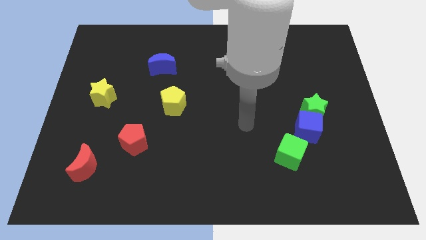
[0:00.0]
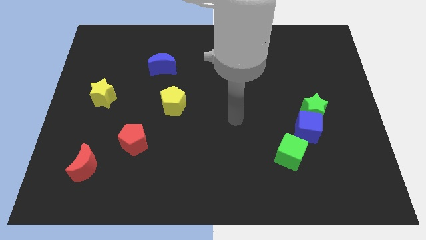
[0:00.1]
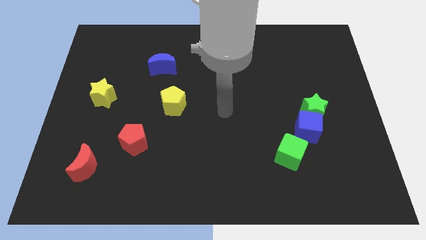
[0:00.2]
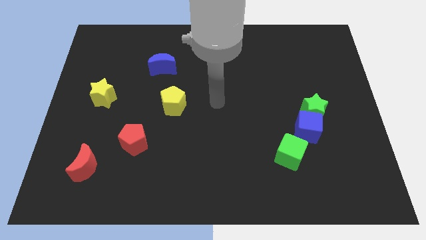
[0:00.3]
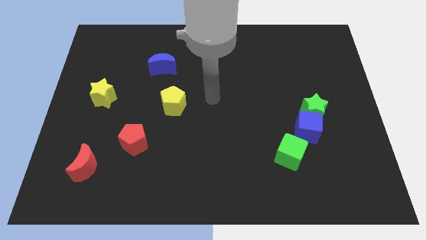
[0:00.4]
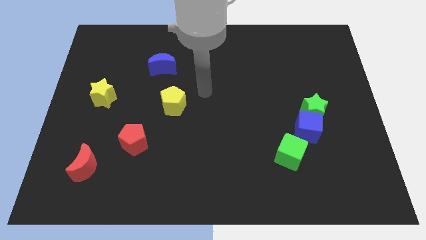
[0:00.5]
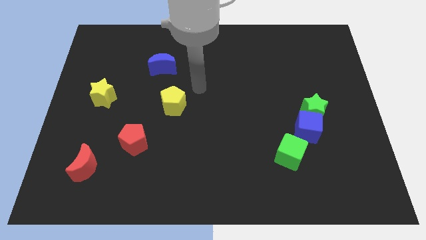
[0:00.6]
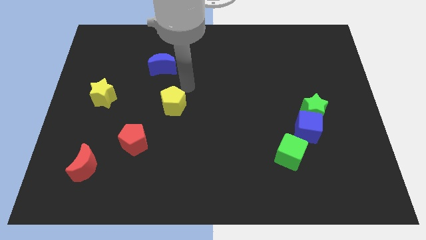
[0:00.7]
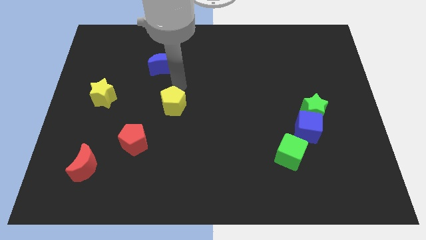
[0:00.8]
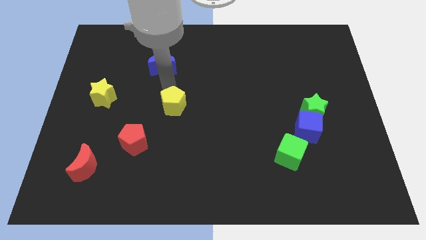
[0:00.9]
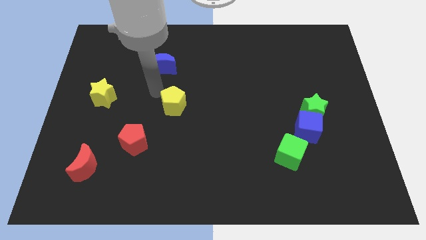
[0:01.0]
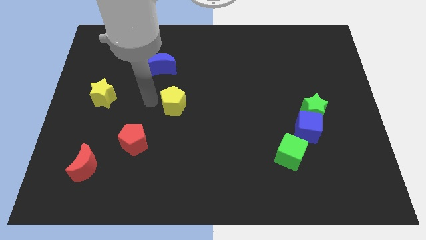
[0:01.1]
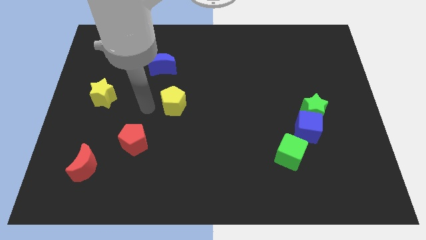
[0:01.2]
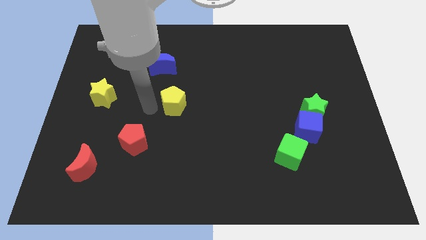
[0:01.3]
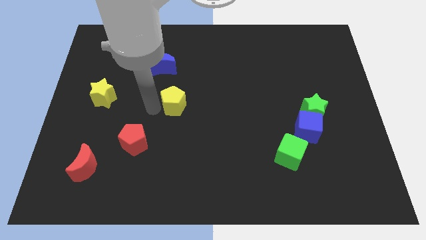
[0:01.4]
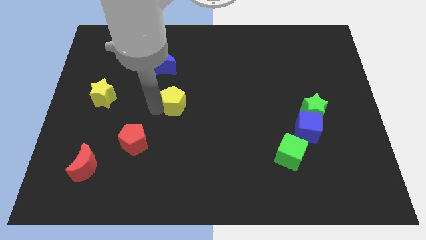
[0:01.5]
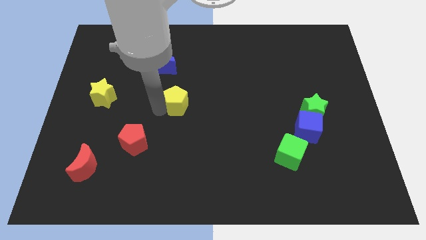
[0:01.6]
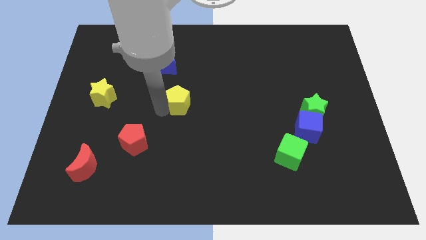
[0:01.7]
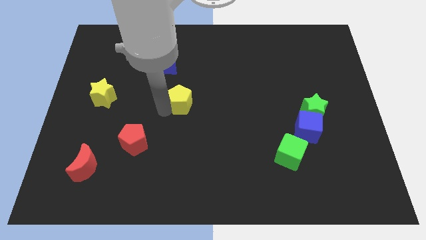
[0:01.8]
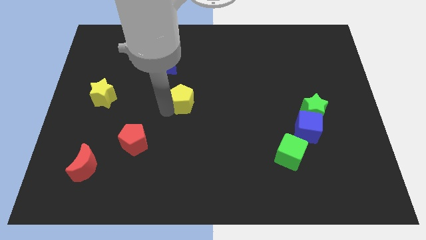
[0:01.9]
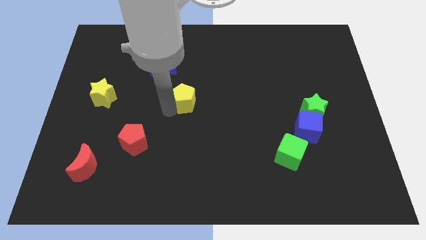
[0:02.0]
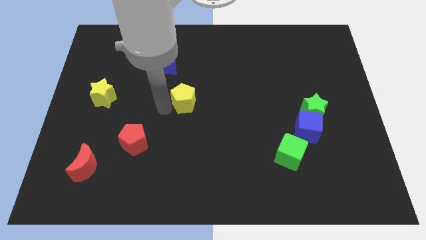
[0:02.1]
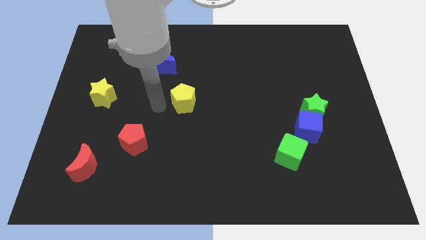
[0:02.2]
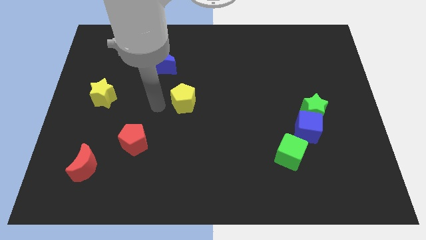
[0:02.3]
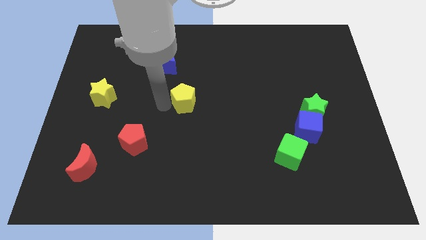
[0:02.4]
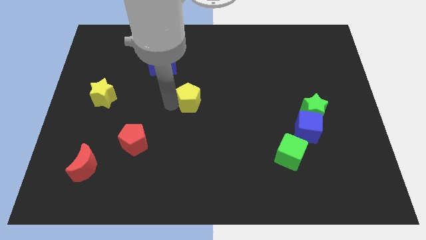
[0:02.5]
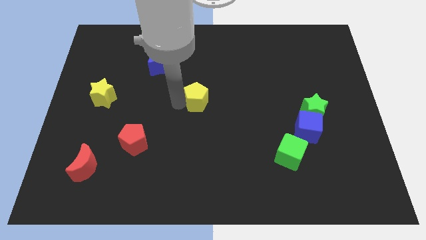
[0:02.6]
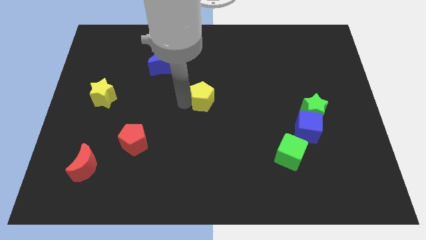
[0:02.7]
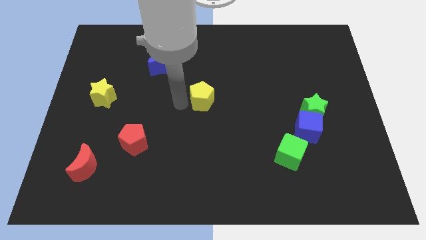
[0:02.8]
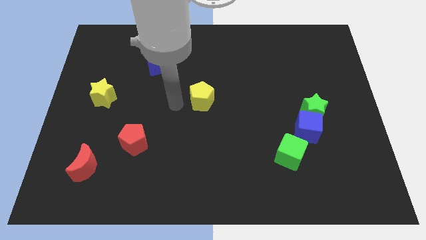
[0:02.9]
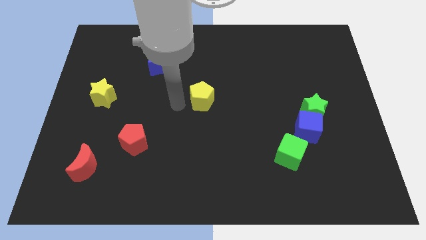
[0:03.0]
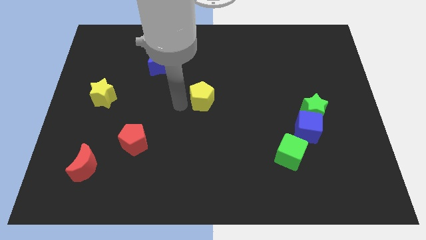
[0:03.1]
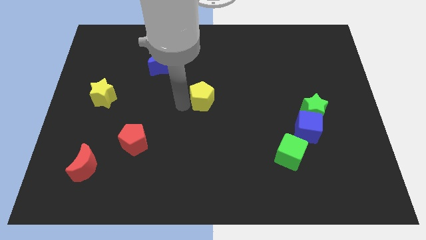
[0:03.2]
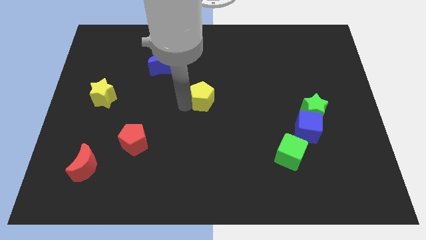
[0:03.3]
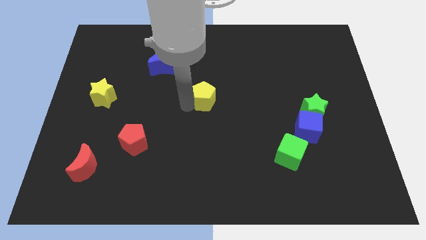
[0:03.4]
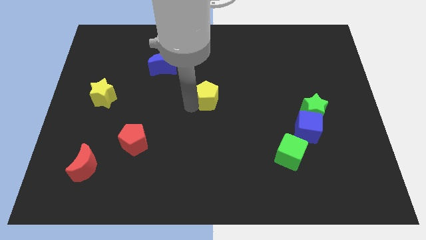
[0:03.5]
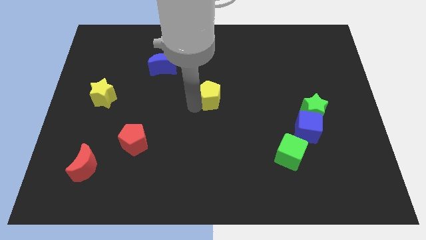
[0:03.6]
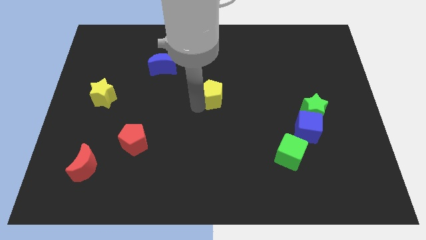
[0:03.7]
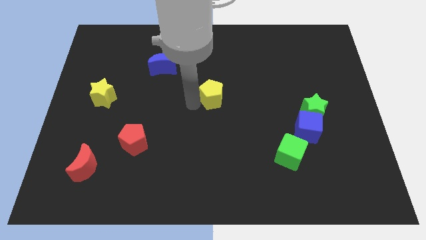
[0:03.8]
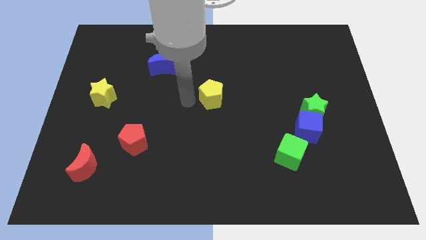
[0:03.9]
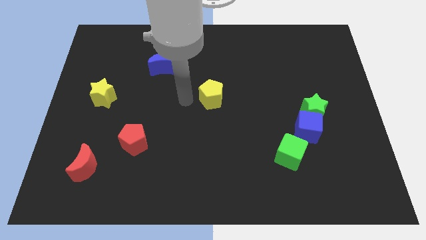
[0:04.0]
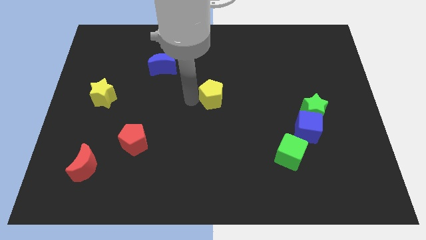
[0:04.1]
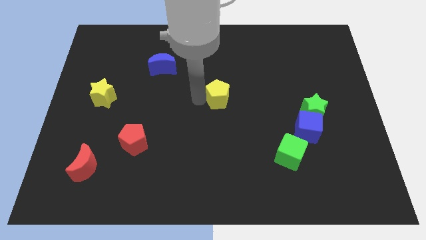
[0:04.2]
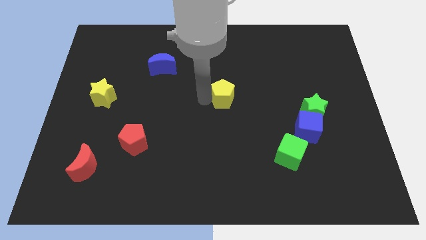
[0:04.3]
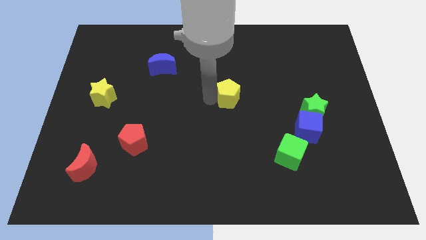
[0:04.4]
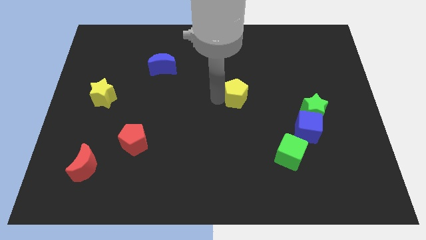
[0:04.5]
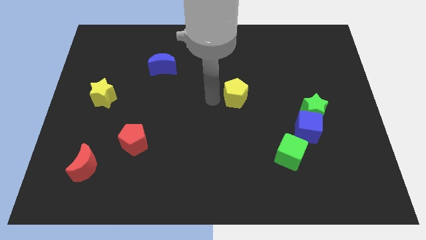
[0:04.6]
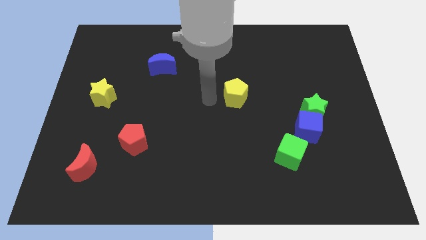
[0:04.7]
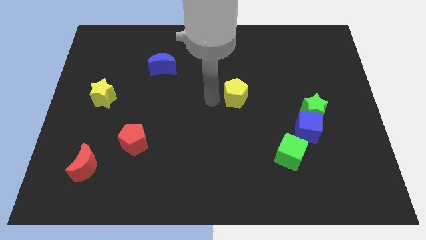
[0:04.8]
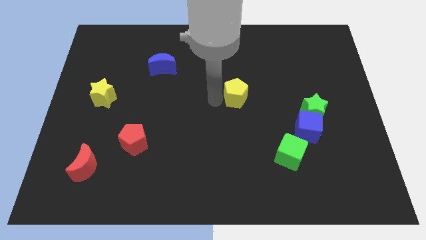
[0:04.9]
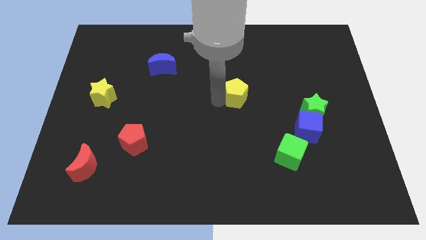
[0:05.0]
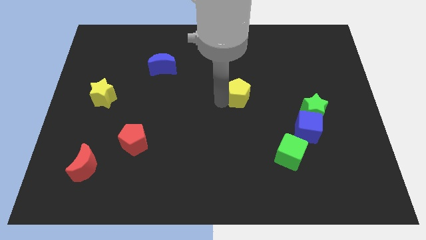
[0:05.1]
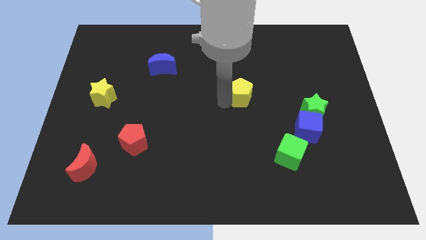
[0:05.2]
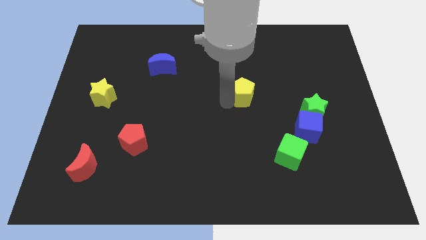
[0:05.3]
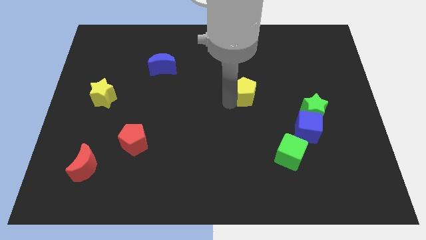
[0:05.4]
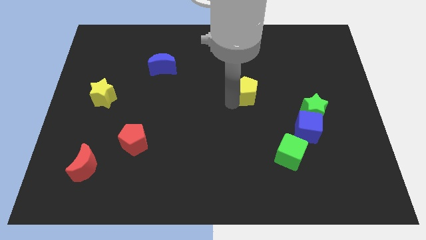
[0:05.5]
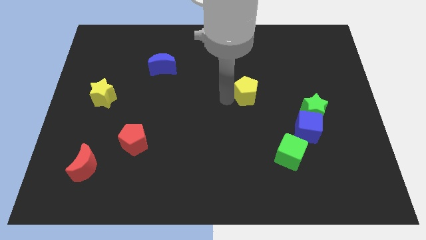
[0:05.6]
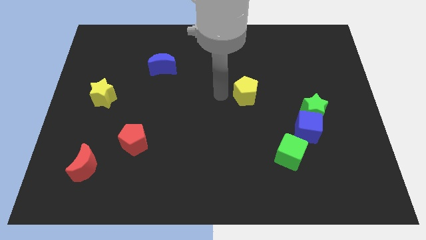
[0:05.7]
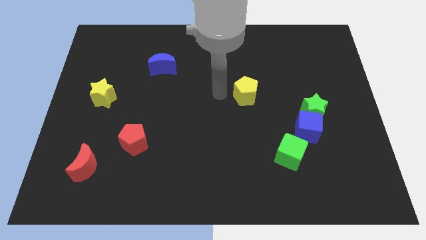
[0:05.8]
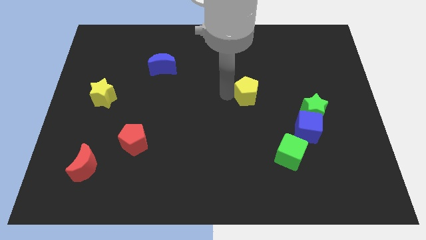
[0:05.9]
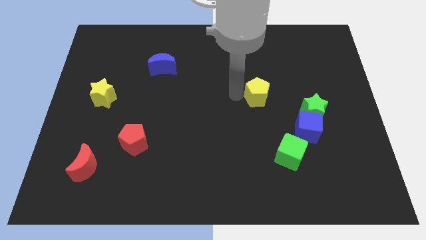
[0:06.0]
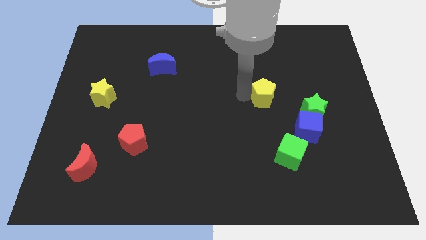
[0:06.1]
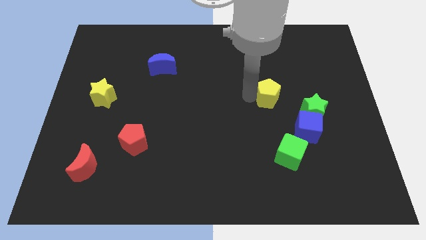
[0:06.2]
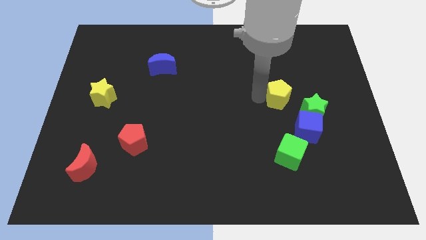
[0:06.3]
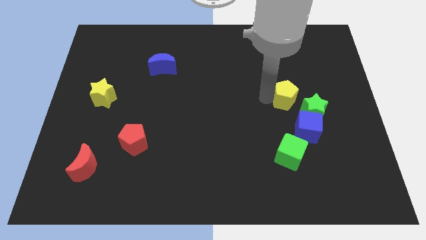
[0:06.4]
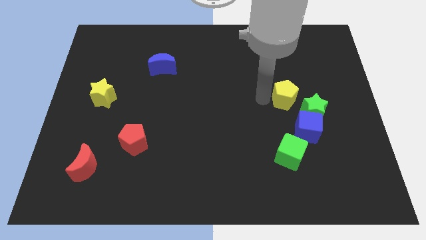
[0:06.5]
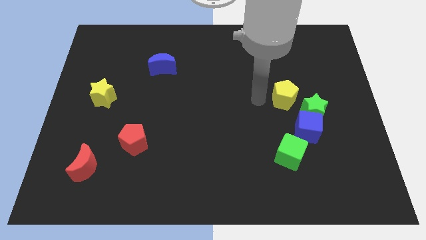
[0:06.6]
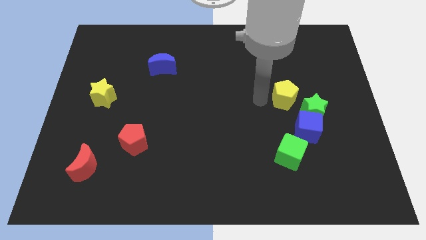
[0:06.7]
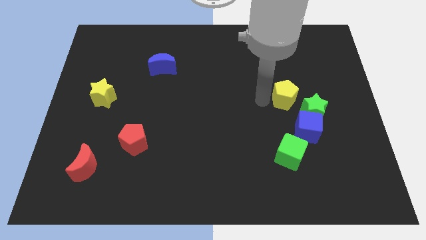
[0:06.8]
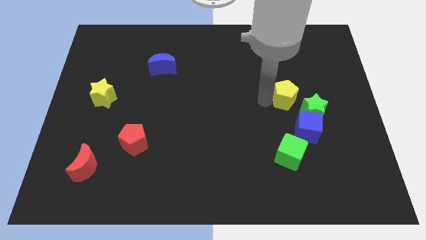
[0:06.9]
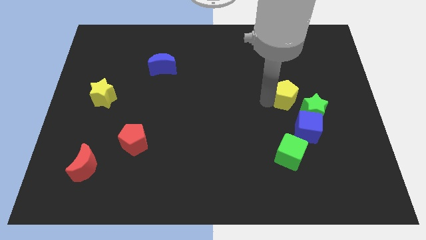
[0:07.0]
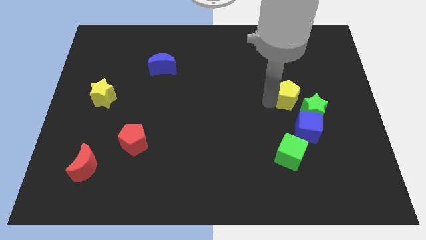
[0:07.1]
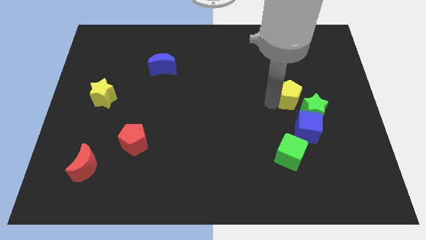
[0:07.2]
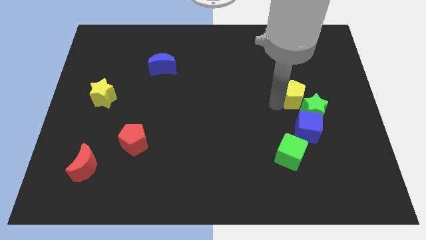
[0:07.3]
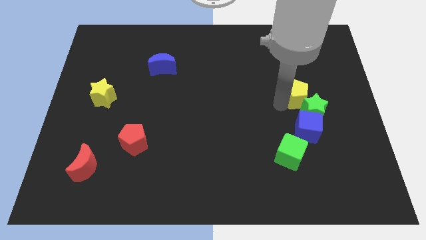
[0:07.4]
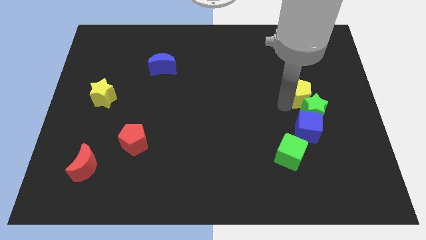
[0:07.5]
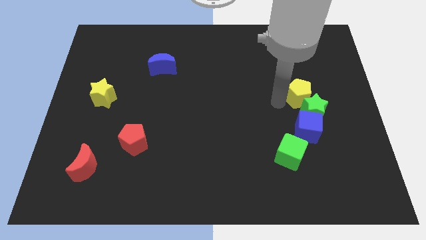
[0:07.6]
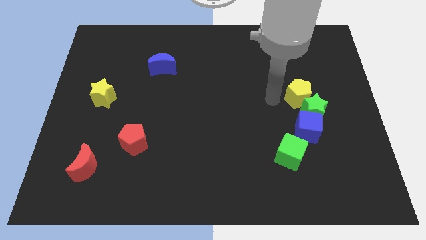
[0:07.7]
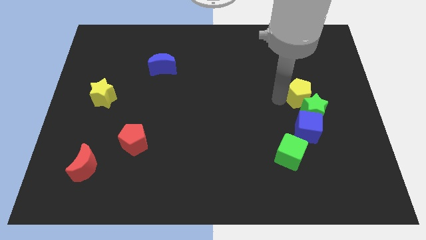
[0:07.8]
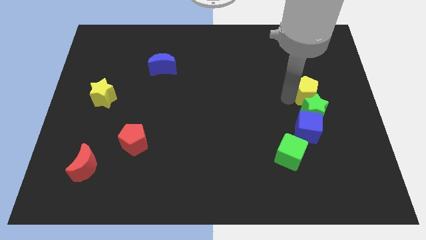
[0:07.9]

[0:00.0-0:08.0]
put the yellow pentagon to the top right of the green star

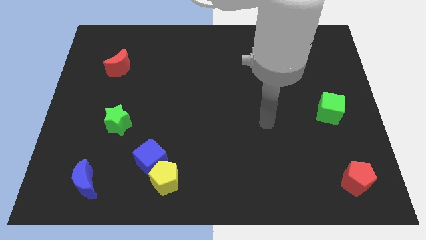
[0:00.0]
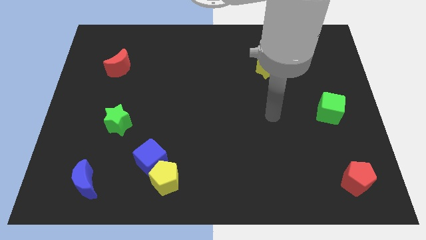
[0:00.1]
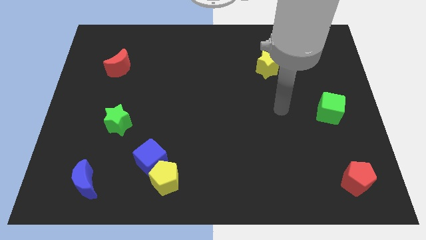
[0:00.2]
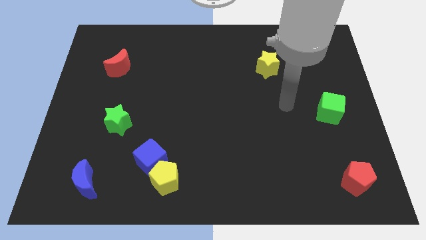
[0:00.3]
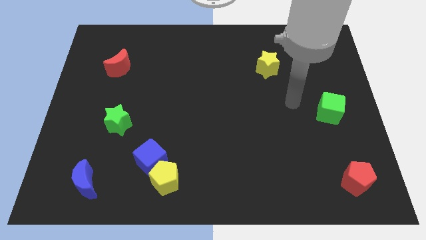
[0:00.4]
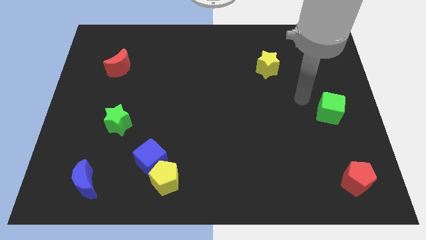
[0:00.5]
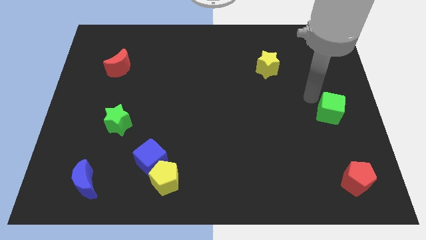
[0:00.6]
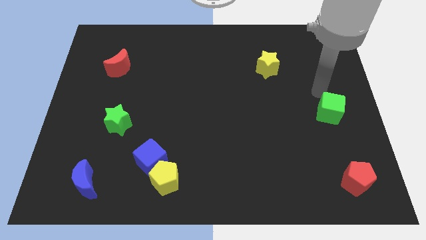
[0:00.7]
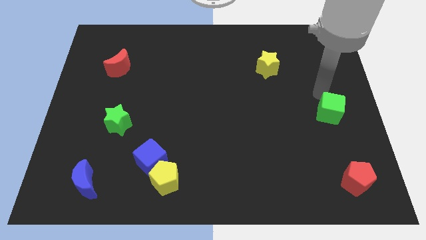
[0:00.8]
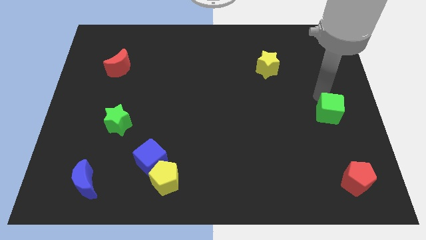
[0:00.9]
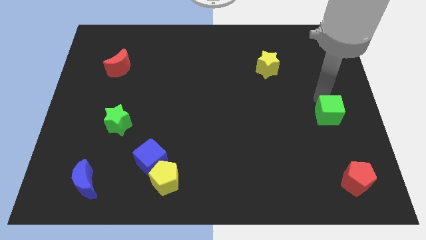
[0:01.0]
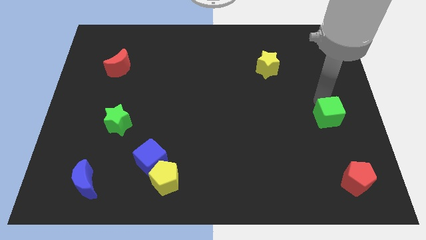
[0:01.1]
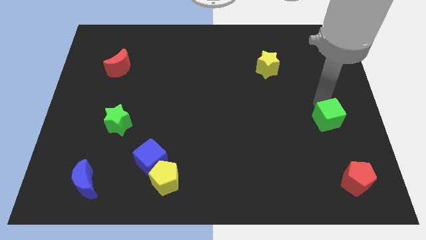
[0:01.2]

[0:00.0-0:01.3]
push the green cube to the top side of the red pentagon
